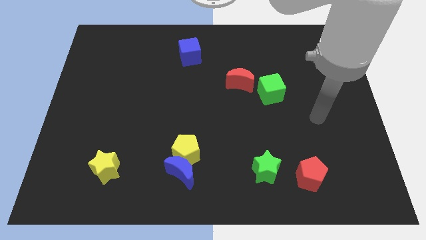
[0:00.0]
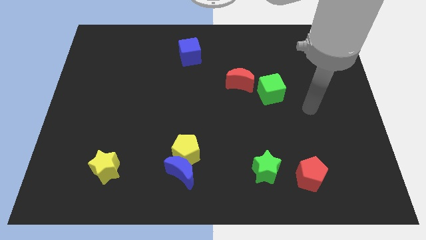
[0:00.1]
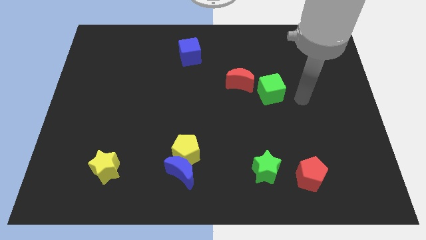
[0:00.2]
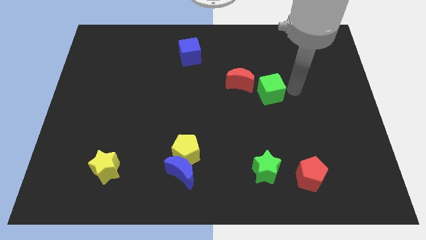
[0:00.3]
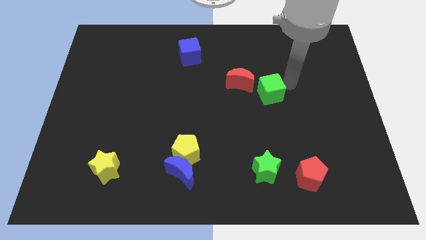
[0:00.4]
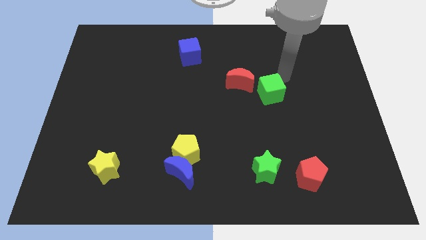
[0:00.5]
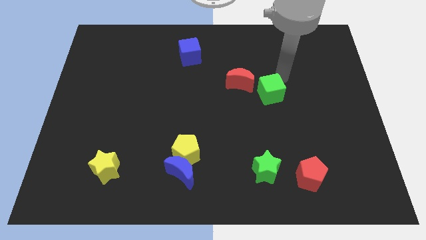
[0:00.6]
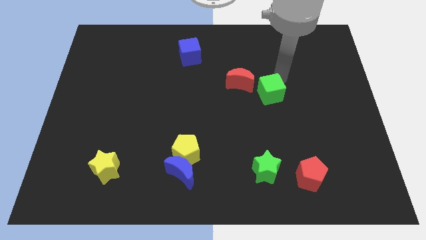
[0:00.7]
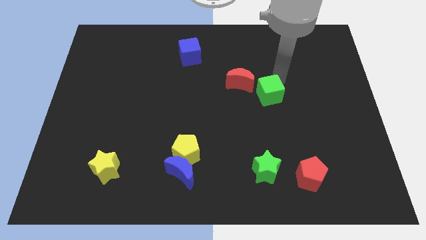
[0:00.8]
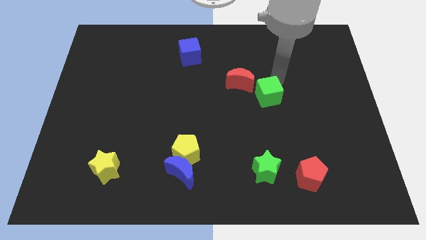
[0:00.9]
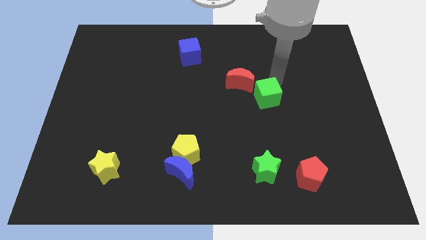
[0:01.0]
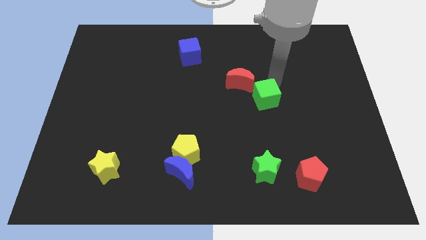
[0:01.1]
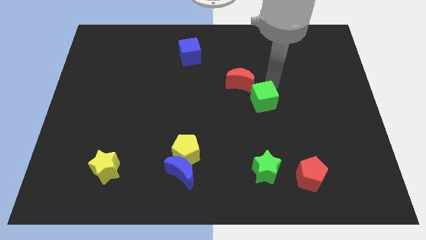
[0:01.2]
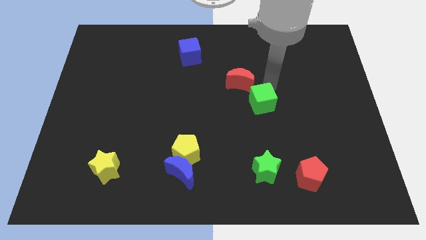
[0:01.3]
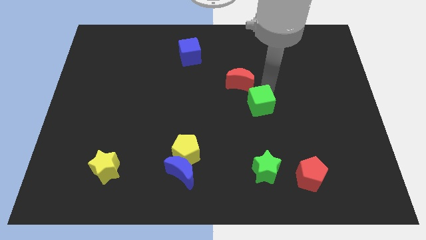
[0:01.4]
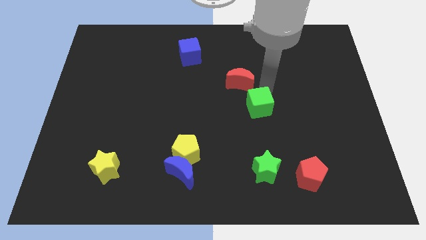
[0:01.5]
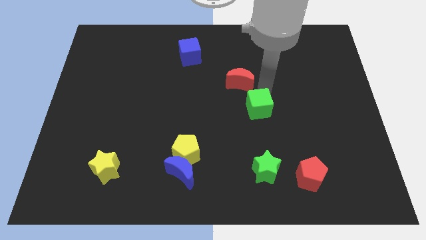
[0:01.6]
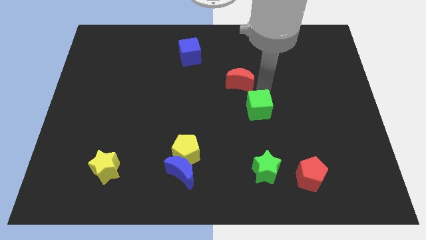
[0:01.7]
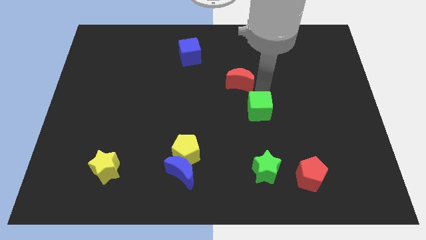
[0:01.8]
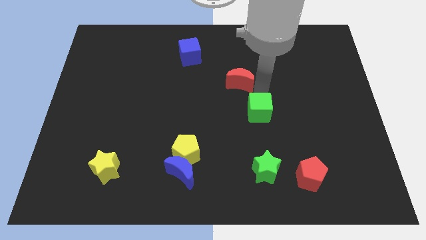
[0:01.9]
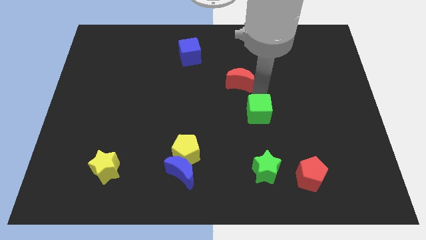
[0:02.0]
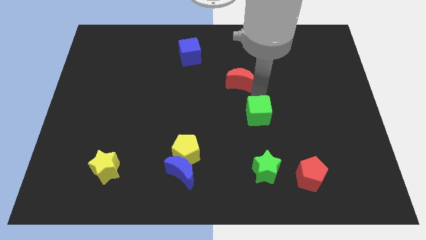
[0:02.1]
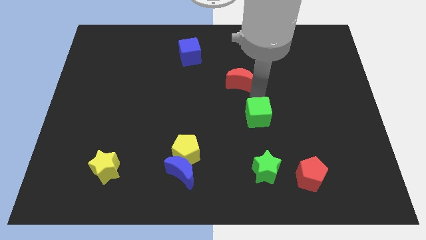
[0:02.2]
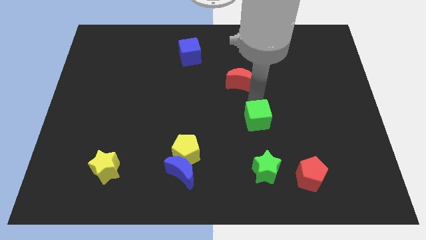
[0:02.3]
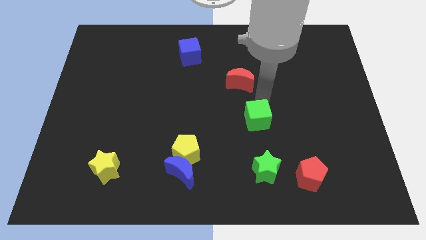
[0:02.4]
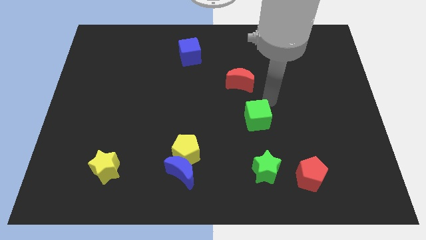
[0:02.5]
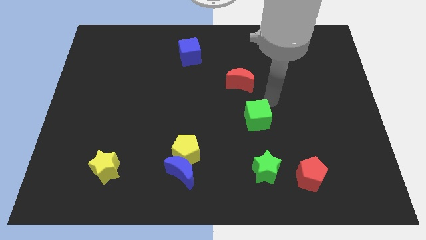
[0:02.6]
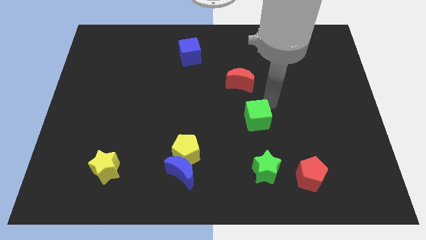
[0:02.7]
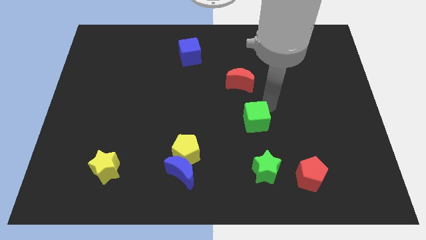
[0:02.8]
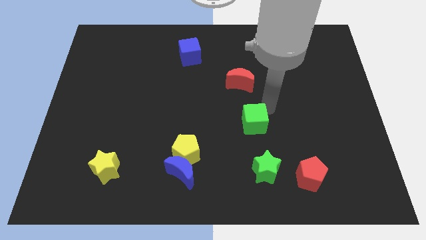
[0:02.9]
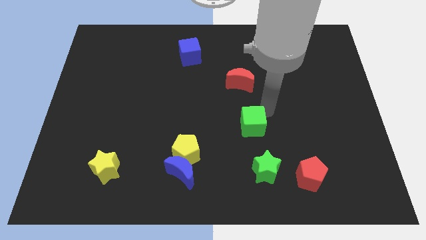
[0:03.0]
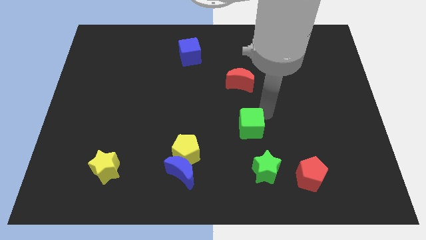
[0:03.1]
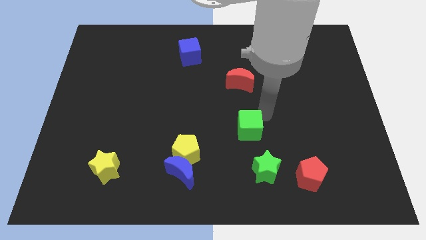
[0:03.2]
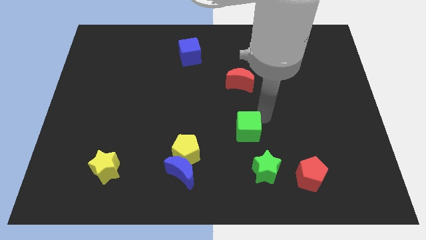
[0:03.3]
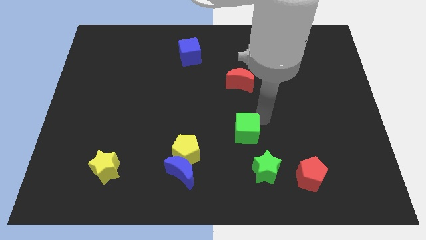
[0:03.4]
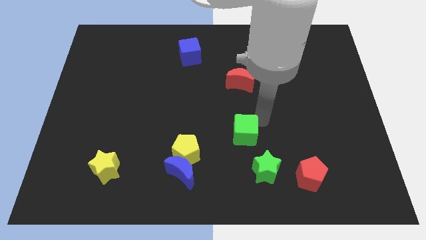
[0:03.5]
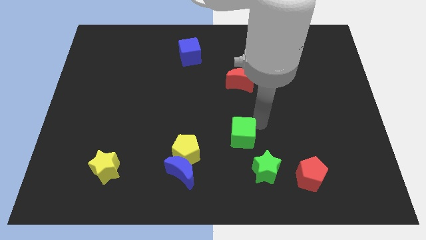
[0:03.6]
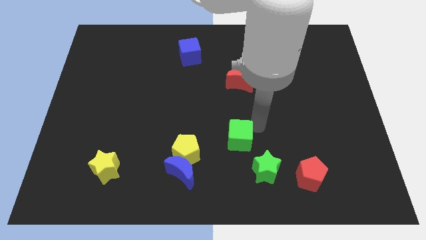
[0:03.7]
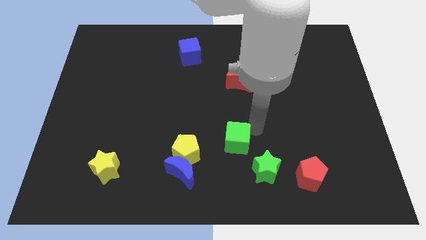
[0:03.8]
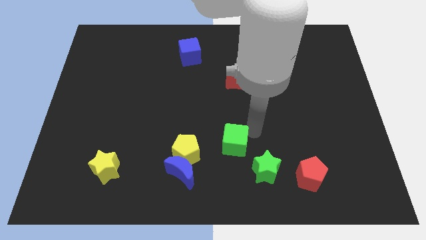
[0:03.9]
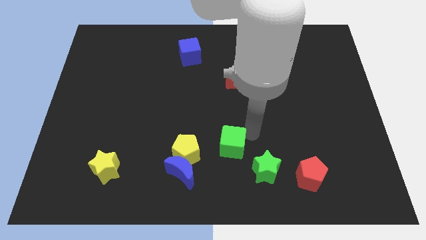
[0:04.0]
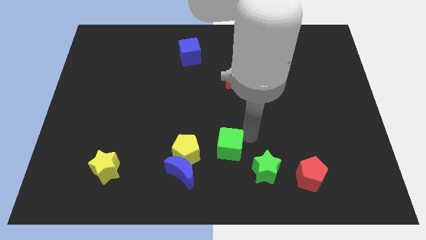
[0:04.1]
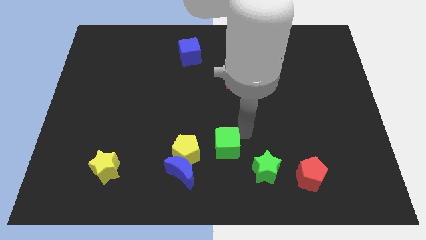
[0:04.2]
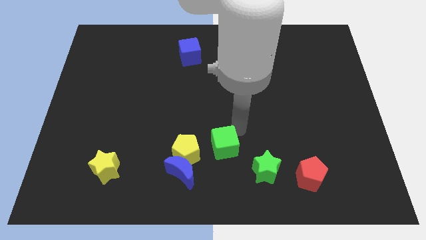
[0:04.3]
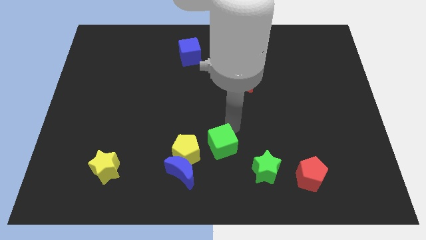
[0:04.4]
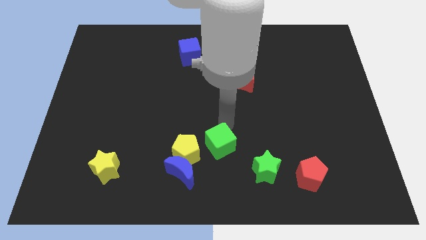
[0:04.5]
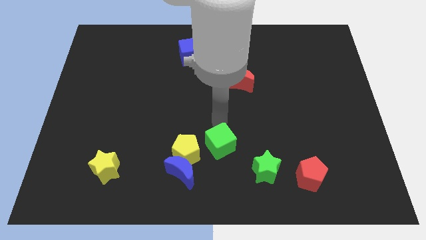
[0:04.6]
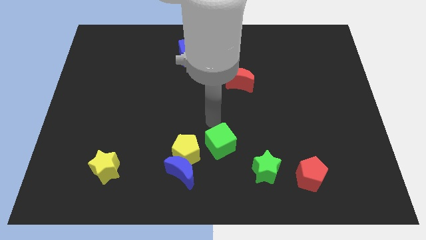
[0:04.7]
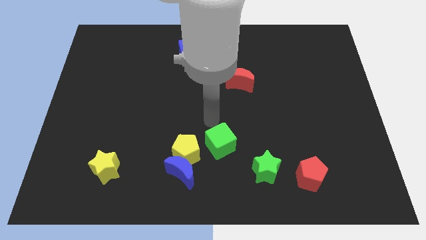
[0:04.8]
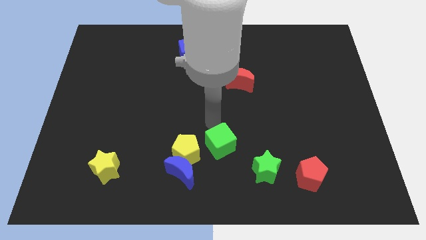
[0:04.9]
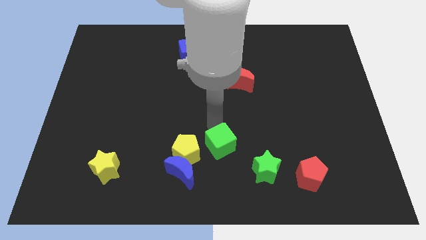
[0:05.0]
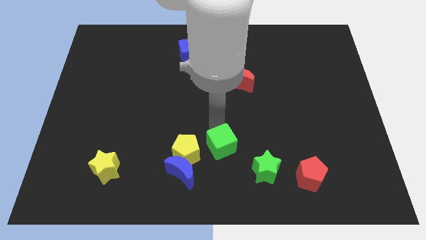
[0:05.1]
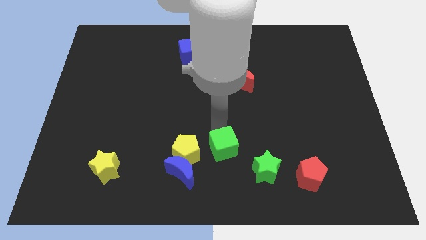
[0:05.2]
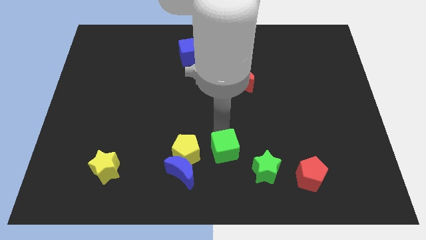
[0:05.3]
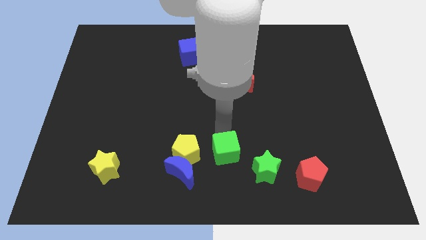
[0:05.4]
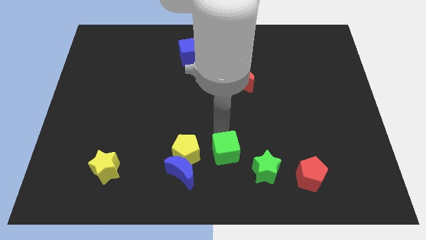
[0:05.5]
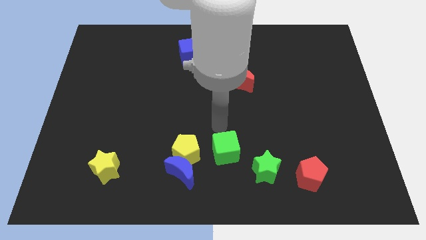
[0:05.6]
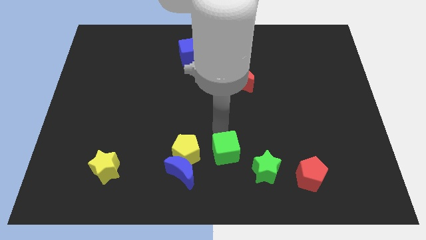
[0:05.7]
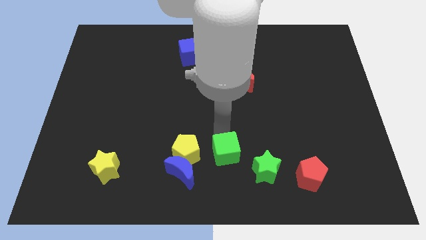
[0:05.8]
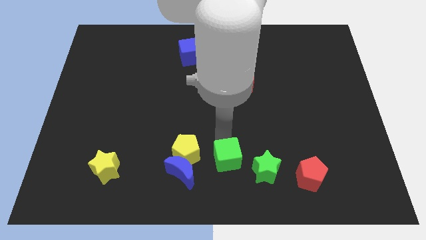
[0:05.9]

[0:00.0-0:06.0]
slide the green cube to the bottom side

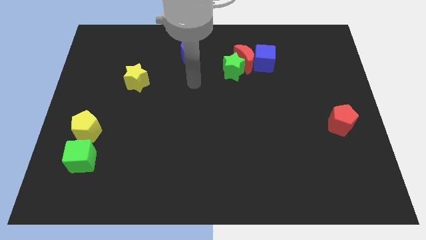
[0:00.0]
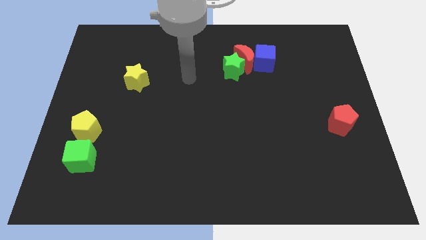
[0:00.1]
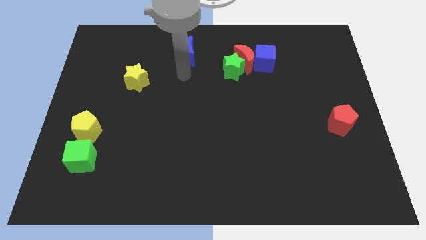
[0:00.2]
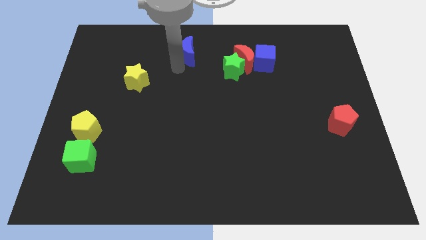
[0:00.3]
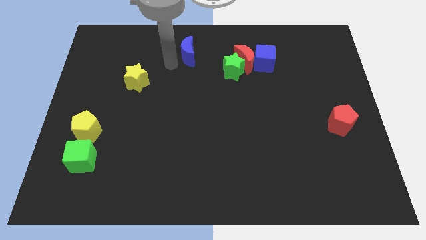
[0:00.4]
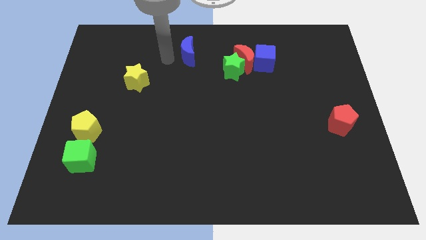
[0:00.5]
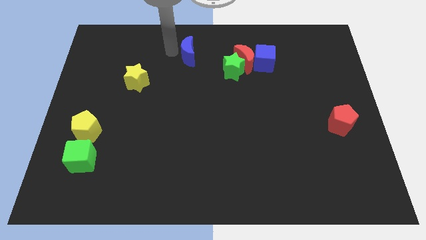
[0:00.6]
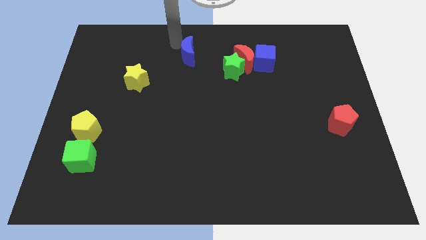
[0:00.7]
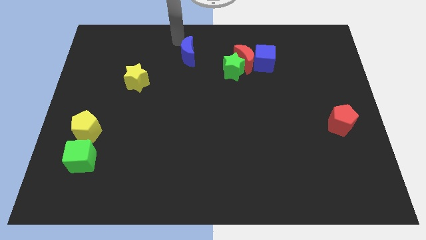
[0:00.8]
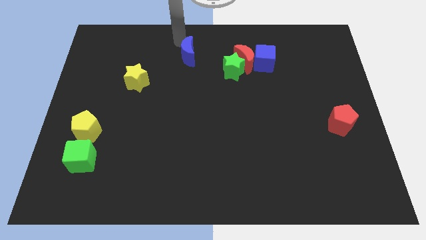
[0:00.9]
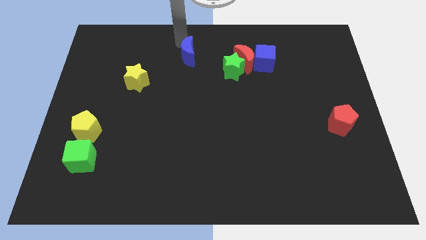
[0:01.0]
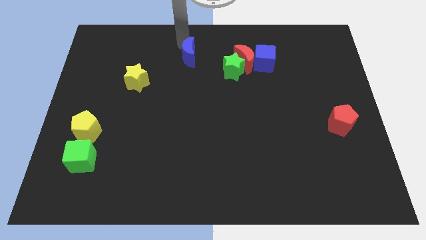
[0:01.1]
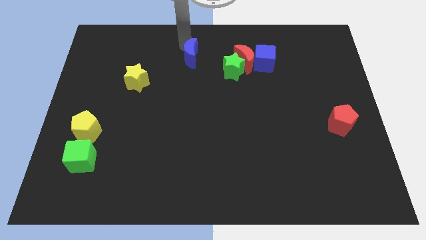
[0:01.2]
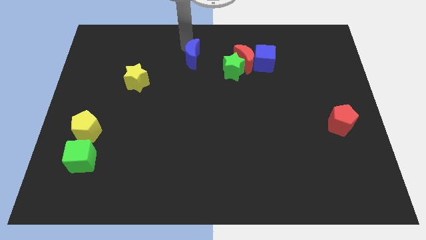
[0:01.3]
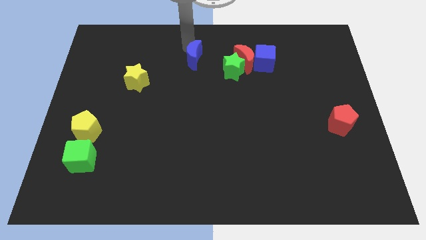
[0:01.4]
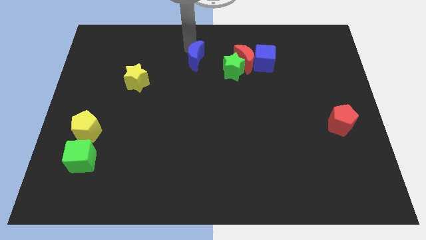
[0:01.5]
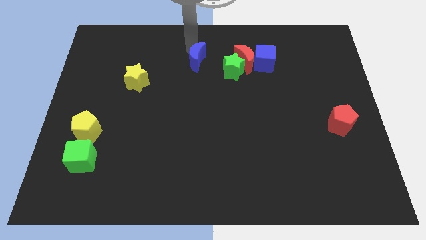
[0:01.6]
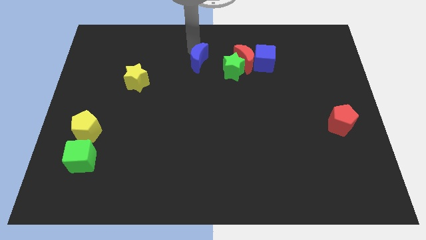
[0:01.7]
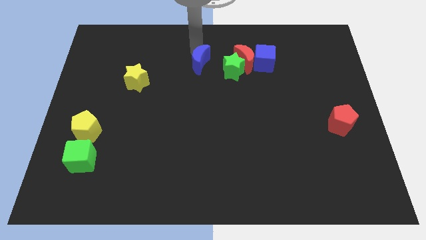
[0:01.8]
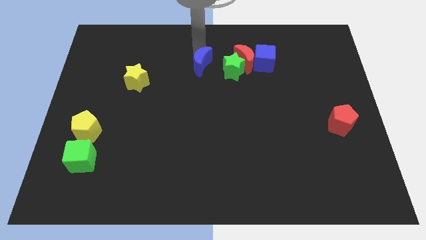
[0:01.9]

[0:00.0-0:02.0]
move the blue moon to the center
